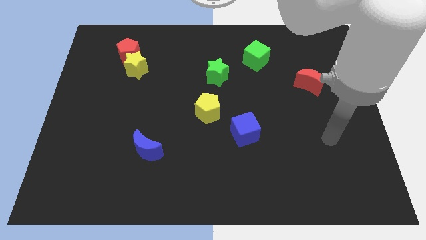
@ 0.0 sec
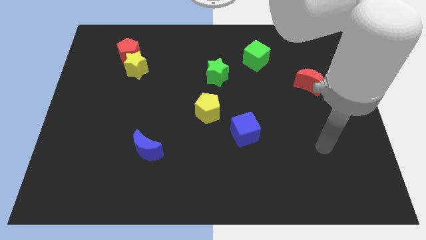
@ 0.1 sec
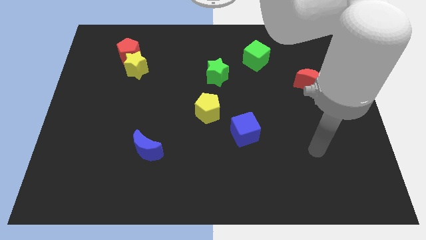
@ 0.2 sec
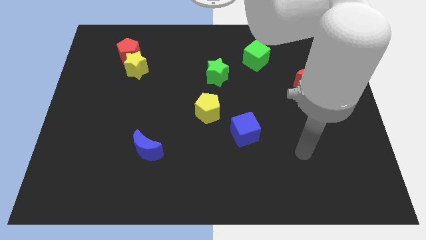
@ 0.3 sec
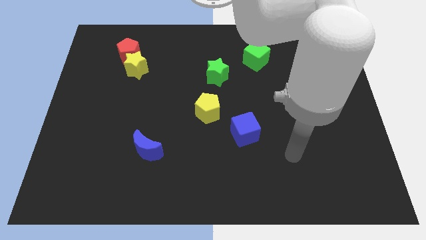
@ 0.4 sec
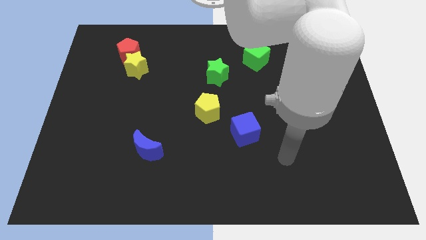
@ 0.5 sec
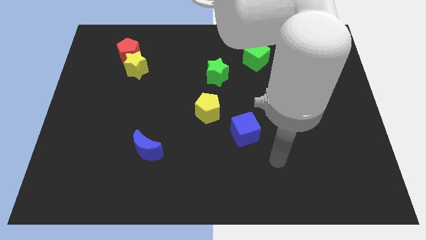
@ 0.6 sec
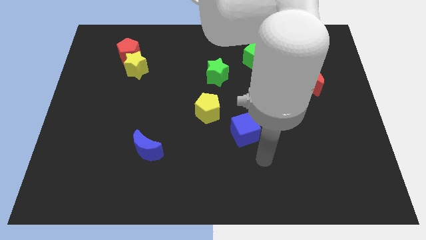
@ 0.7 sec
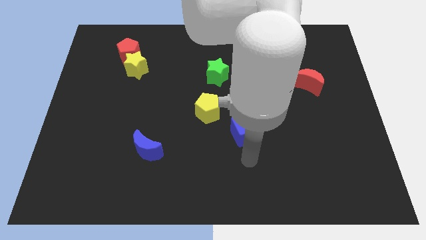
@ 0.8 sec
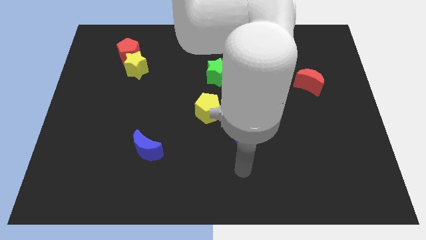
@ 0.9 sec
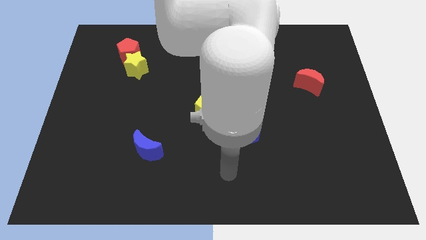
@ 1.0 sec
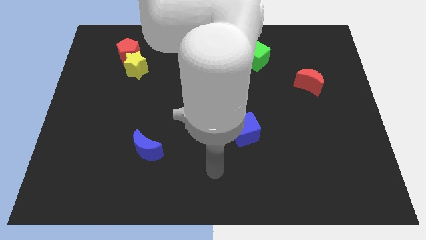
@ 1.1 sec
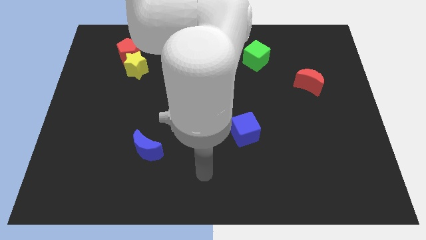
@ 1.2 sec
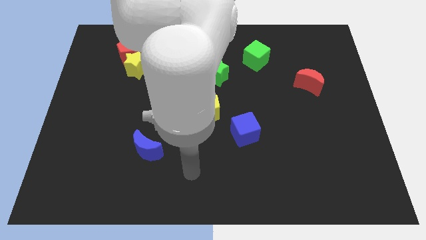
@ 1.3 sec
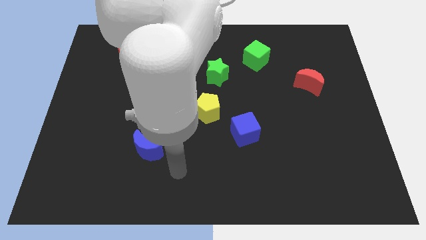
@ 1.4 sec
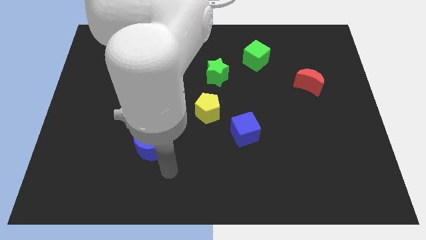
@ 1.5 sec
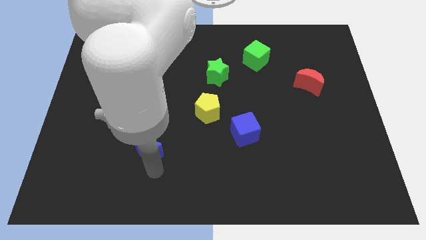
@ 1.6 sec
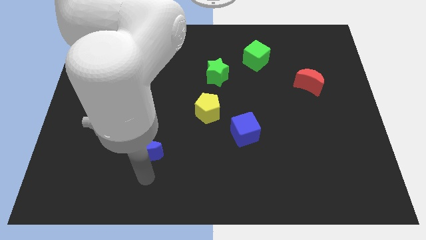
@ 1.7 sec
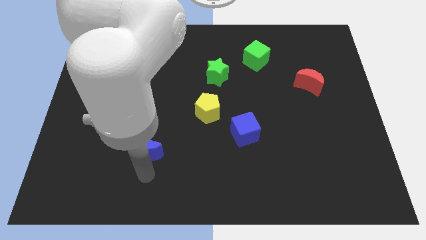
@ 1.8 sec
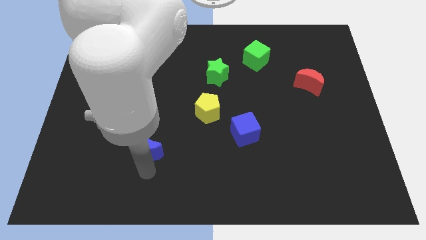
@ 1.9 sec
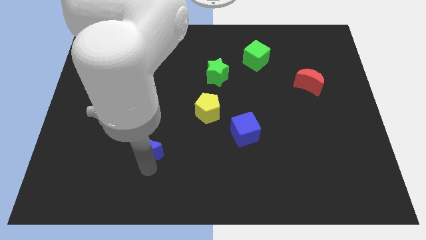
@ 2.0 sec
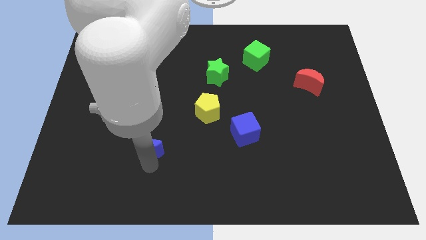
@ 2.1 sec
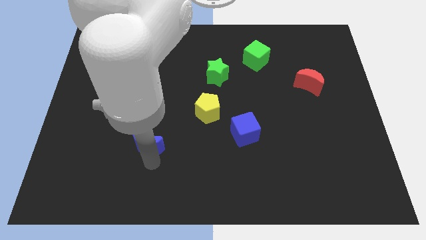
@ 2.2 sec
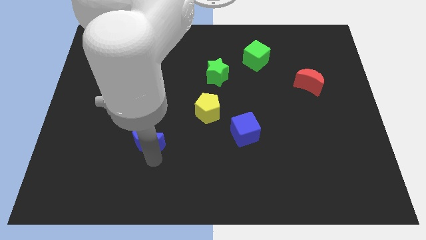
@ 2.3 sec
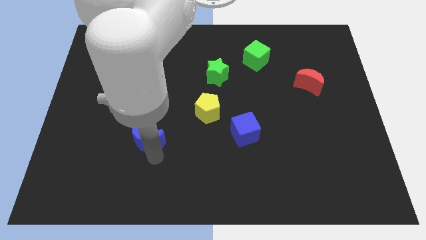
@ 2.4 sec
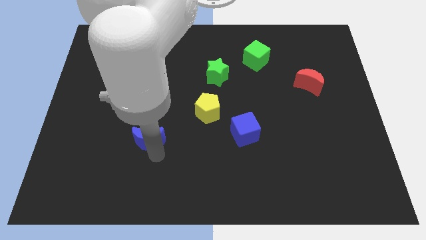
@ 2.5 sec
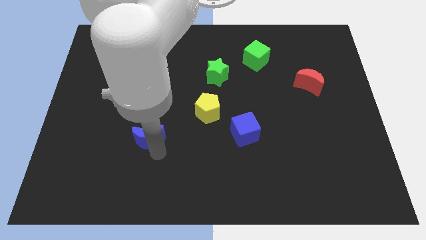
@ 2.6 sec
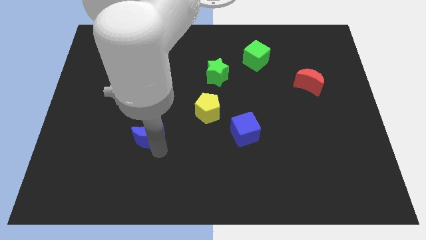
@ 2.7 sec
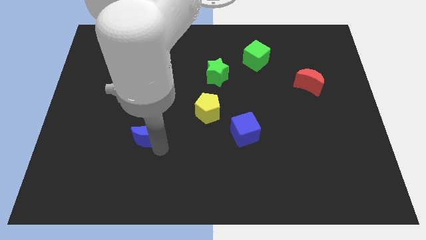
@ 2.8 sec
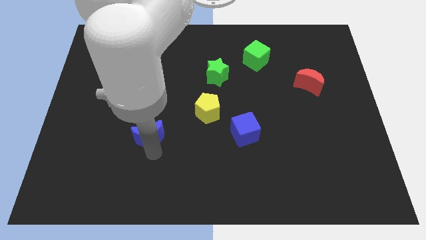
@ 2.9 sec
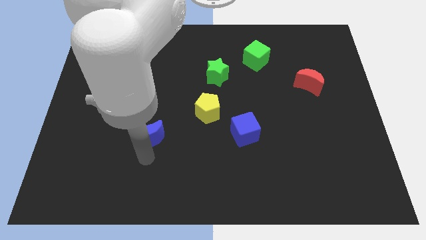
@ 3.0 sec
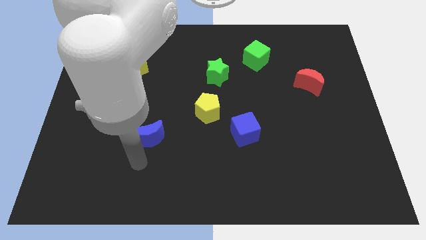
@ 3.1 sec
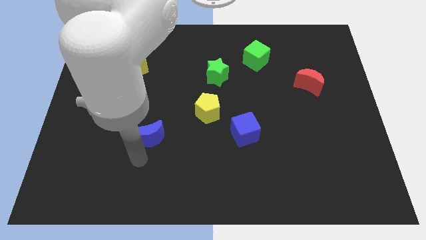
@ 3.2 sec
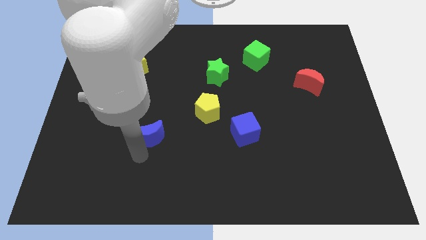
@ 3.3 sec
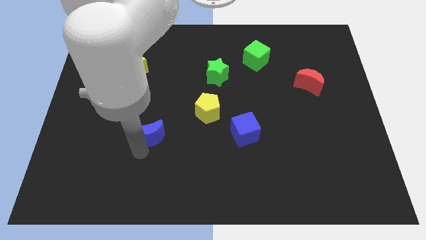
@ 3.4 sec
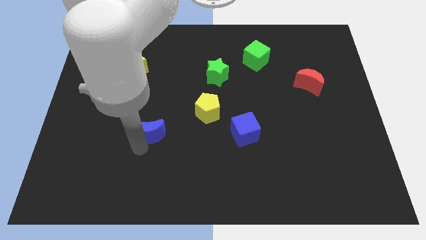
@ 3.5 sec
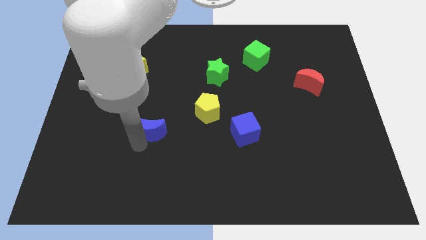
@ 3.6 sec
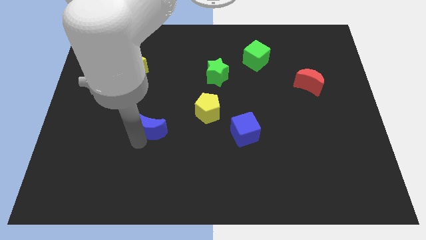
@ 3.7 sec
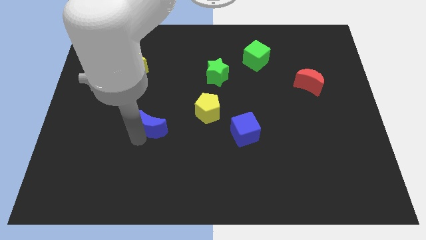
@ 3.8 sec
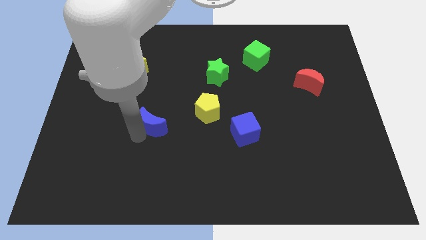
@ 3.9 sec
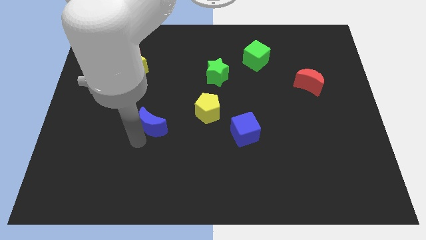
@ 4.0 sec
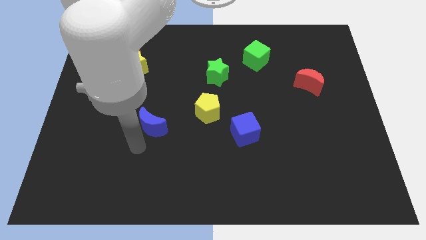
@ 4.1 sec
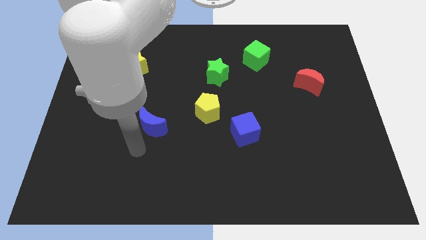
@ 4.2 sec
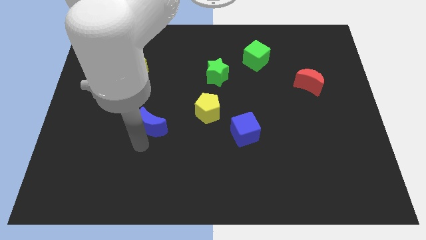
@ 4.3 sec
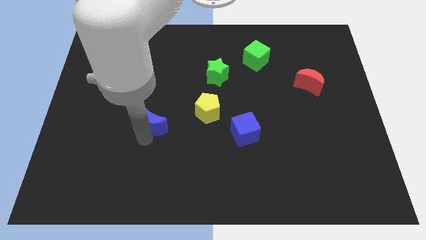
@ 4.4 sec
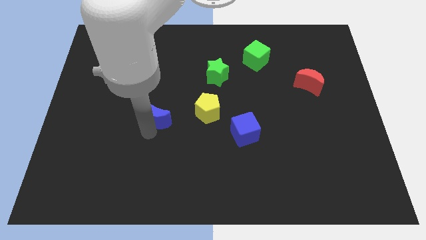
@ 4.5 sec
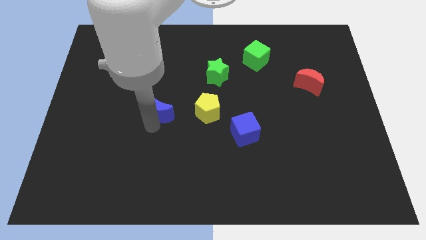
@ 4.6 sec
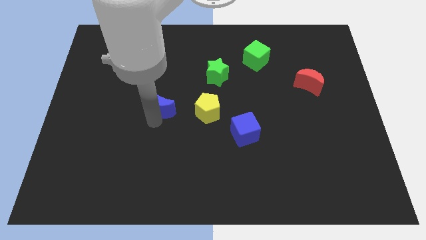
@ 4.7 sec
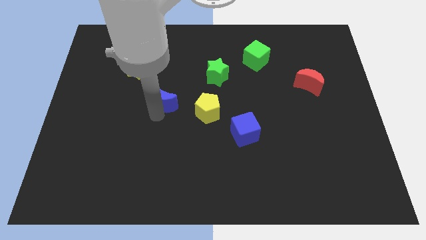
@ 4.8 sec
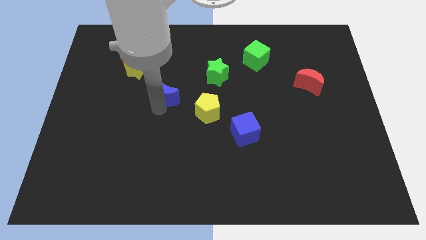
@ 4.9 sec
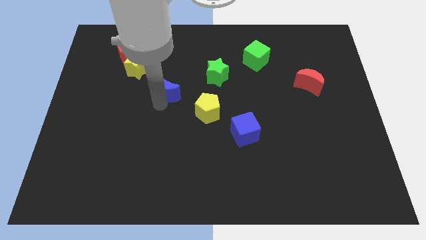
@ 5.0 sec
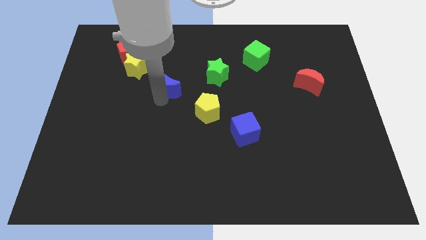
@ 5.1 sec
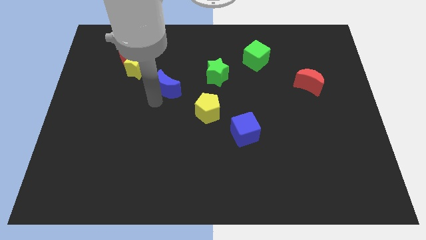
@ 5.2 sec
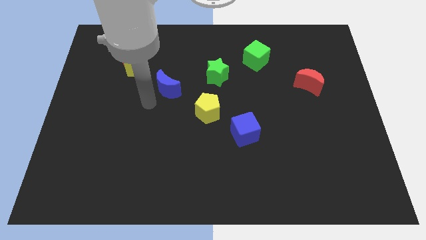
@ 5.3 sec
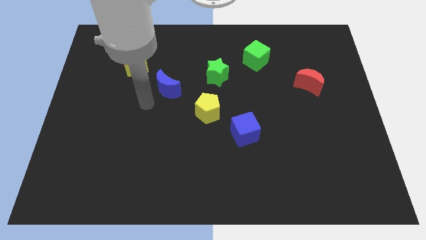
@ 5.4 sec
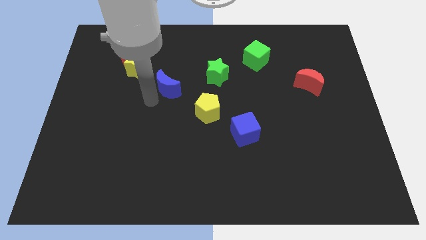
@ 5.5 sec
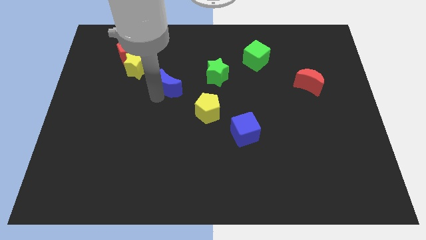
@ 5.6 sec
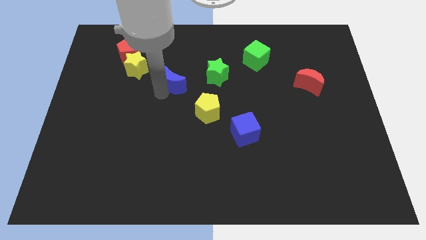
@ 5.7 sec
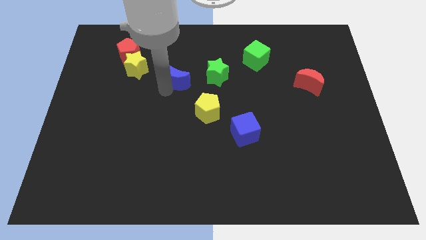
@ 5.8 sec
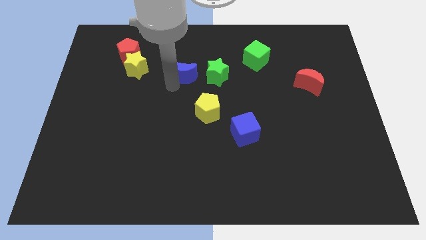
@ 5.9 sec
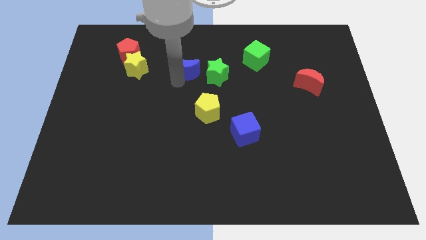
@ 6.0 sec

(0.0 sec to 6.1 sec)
push the blue moon diagonally up and to the left of the green star
